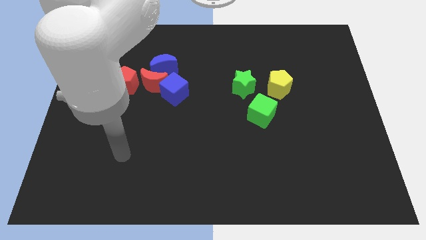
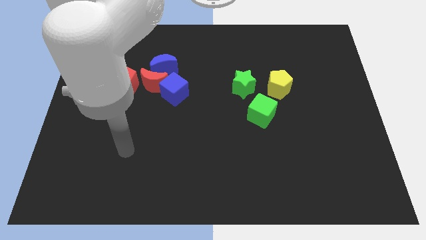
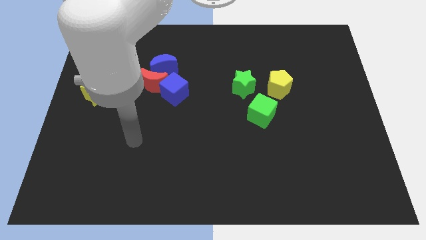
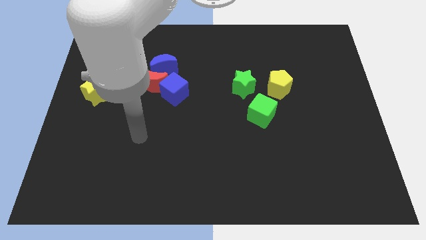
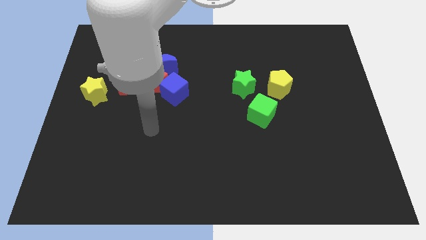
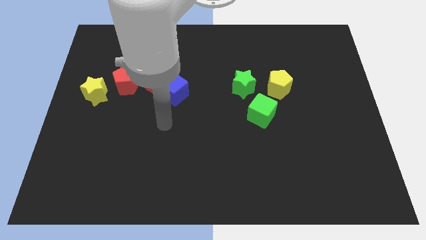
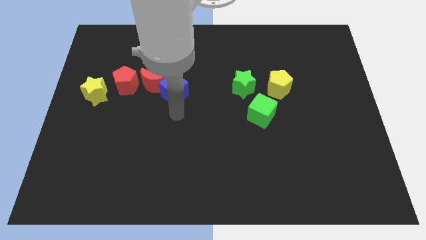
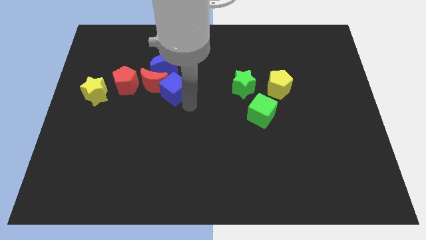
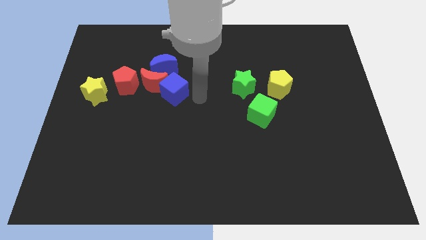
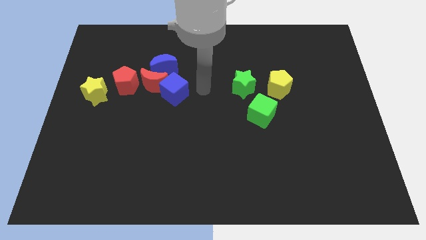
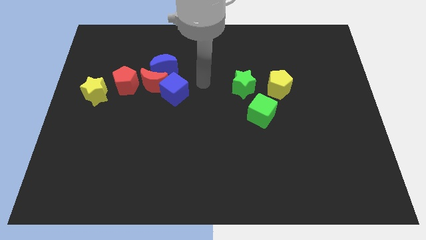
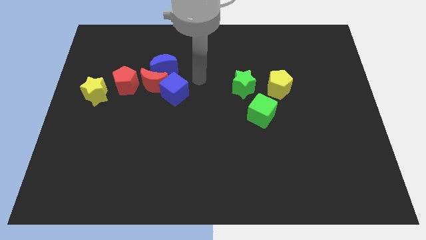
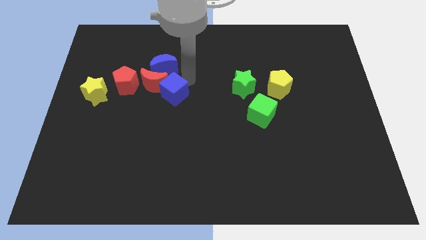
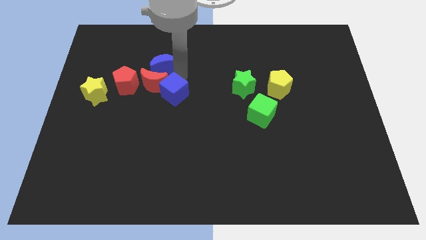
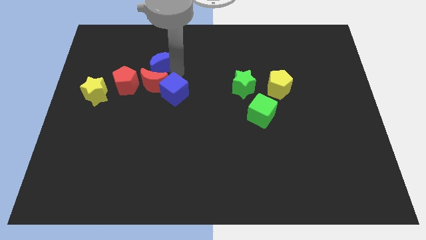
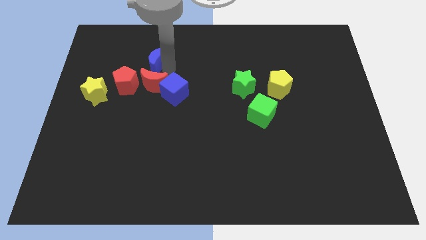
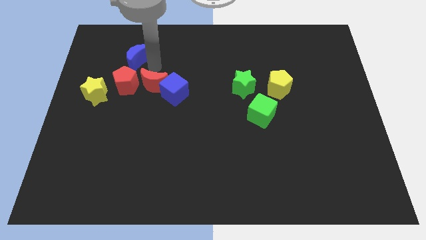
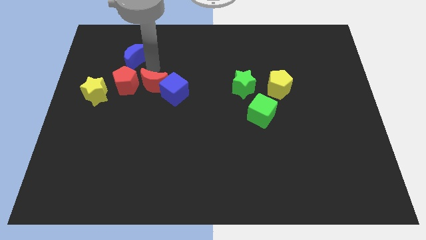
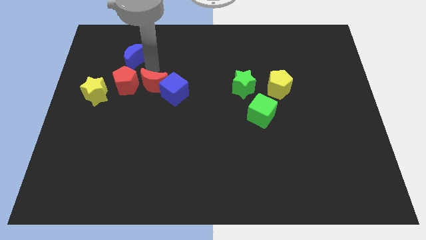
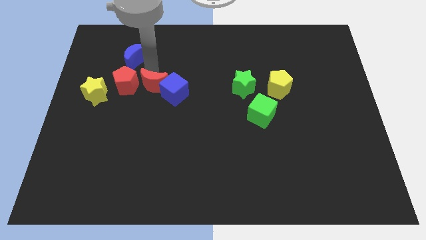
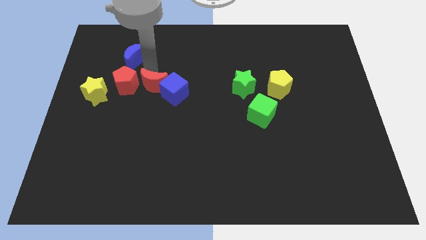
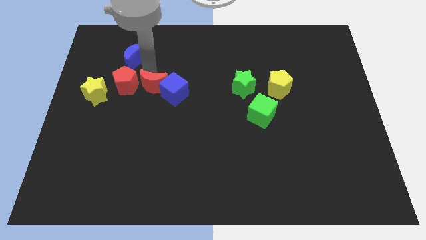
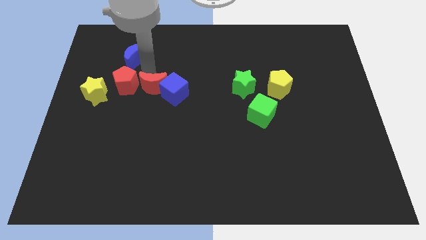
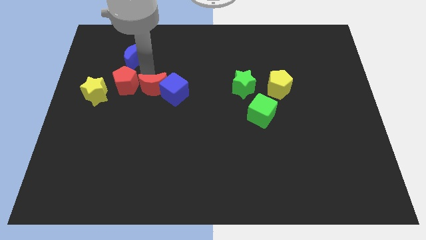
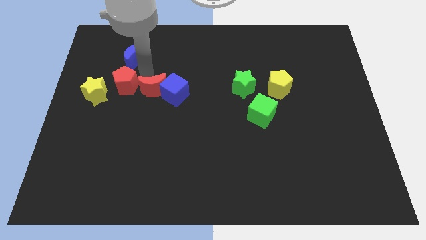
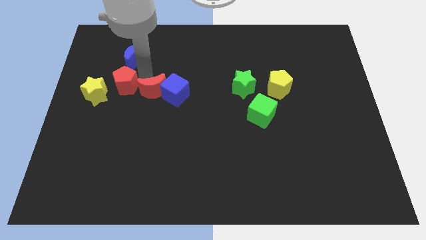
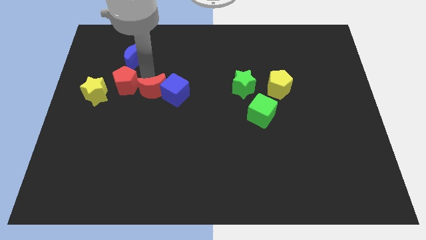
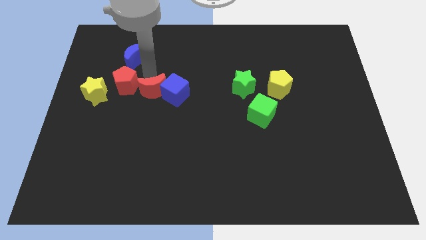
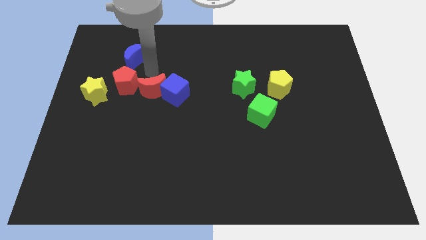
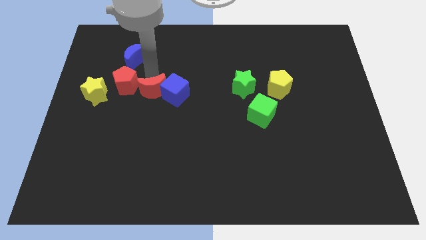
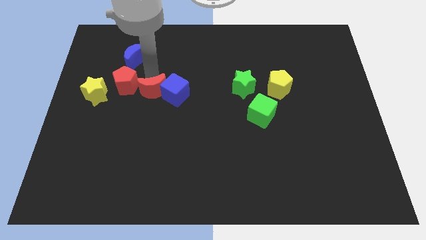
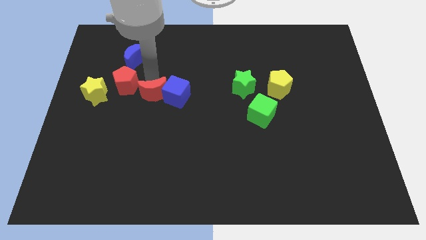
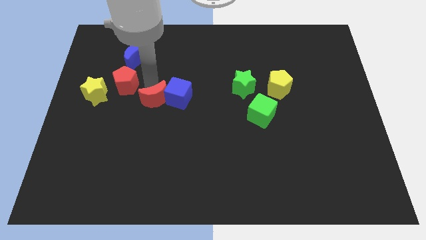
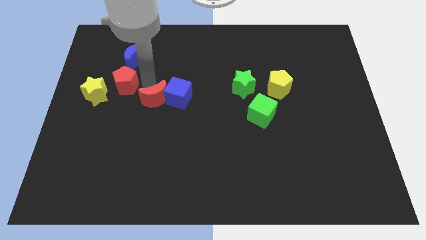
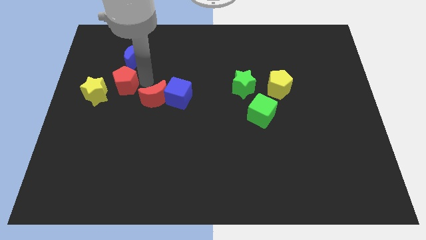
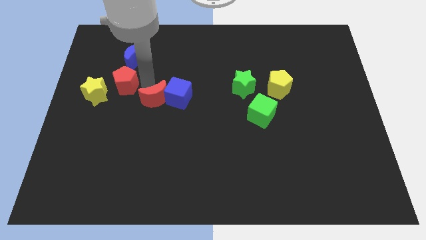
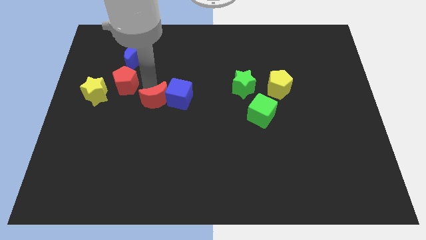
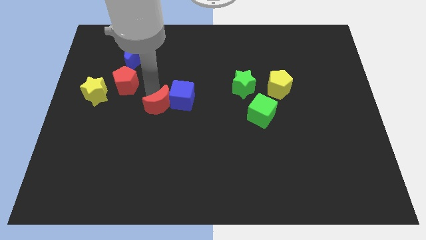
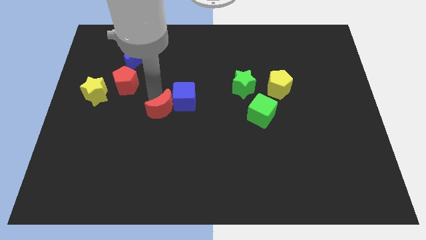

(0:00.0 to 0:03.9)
separate the red moon from the group

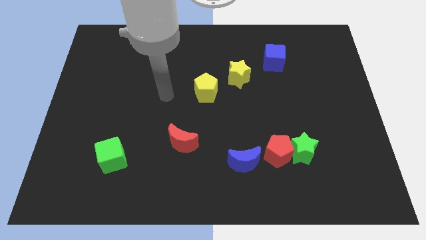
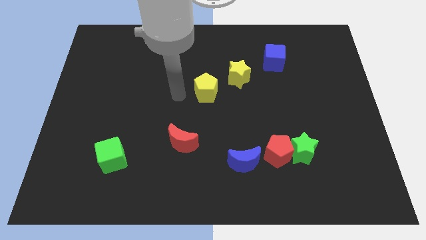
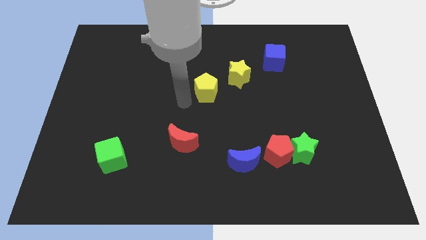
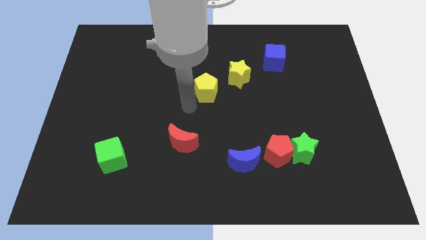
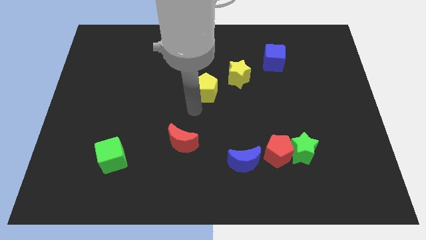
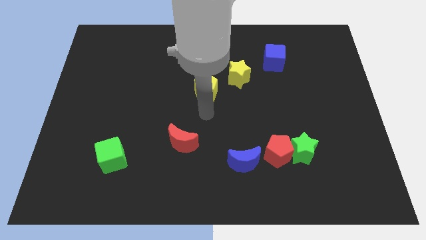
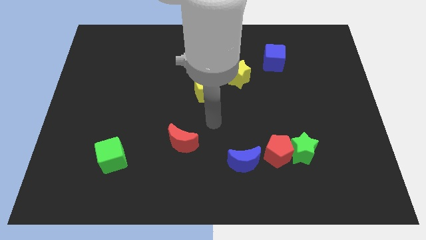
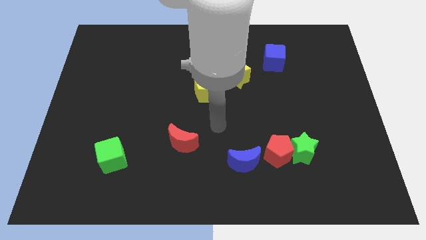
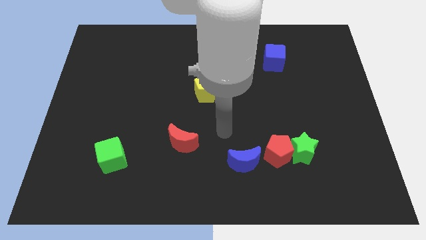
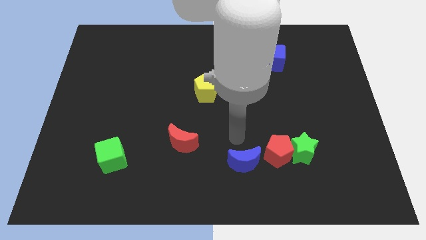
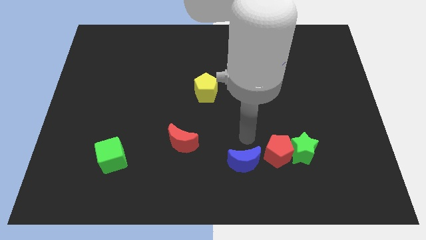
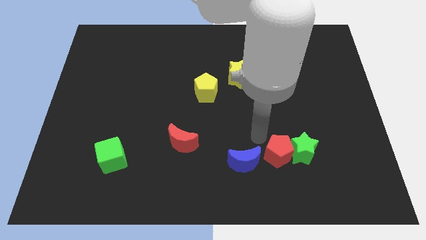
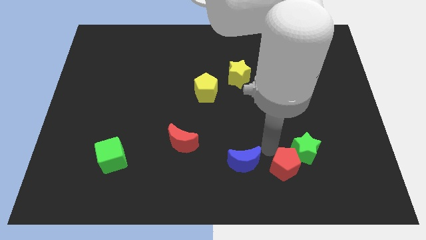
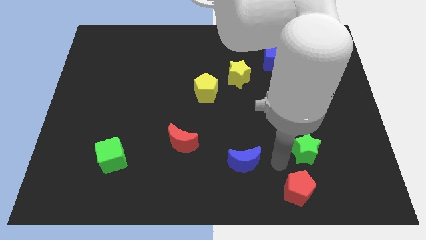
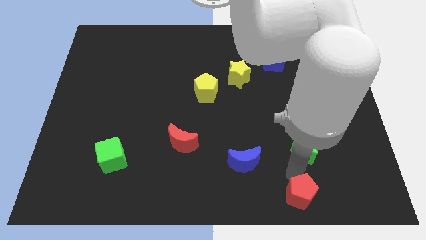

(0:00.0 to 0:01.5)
pull the green star apart from the red pentagon

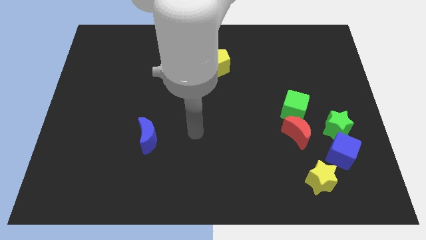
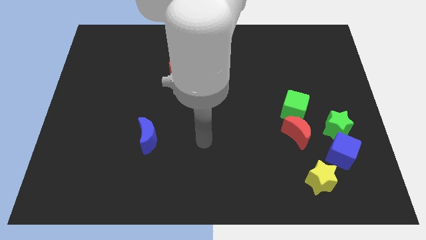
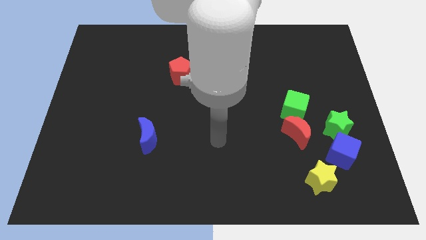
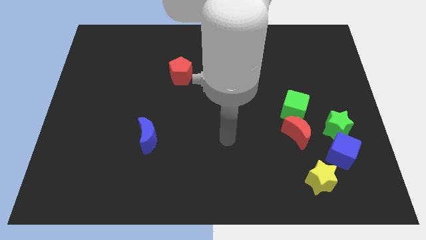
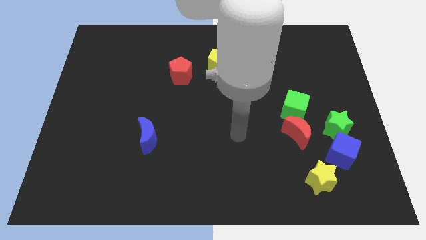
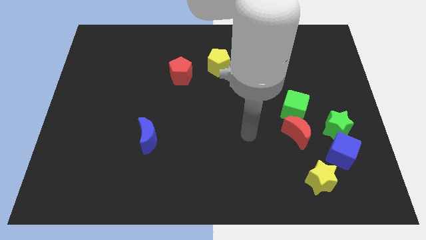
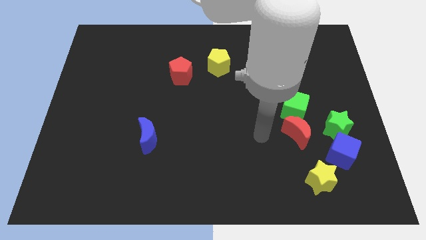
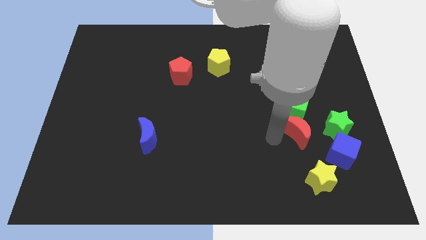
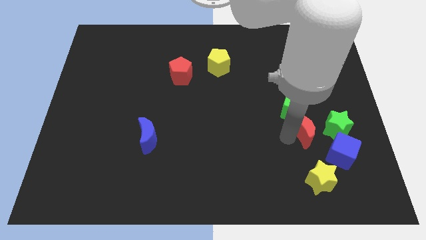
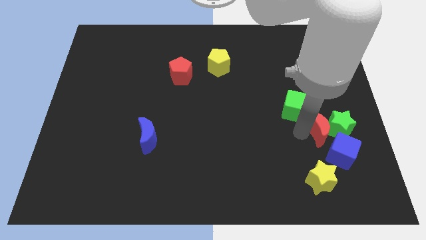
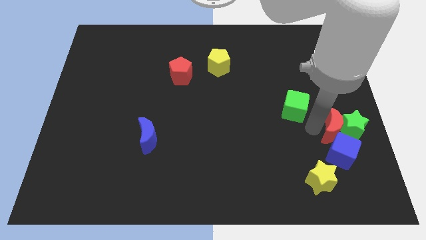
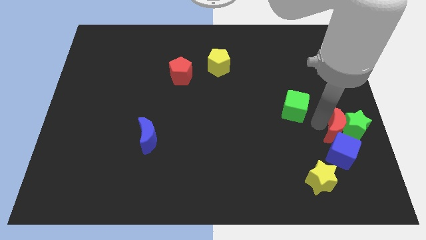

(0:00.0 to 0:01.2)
pull the green cube apart from the red moon

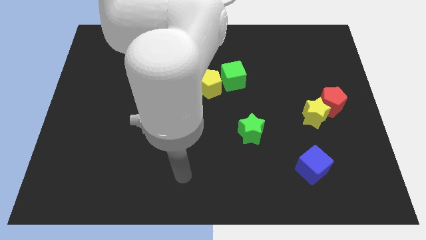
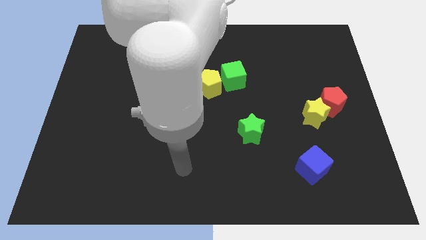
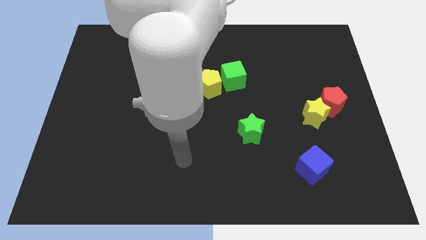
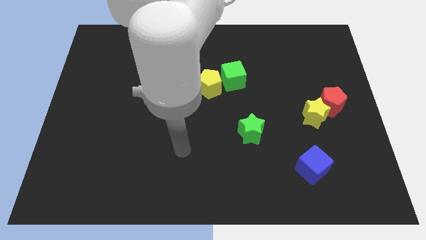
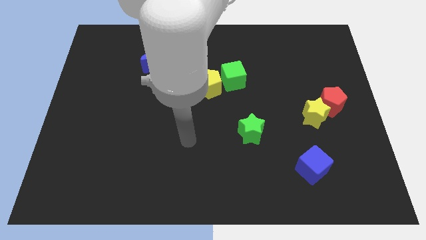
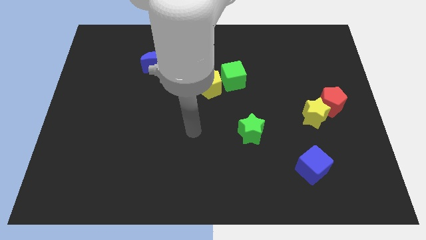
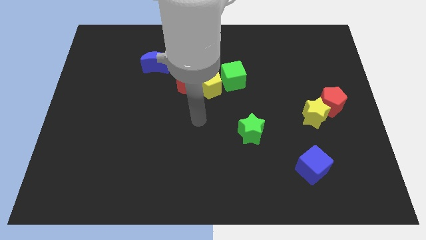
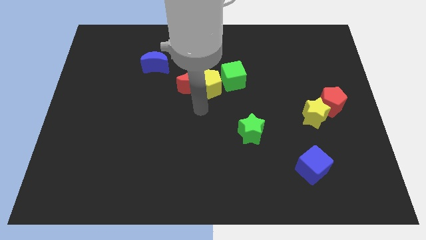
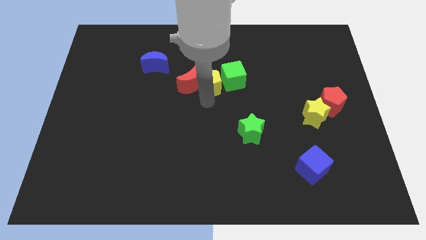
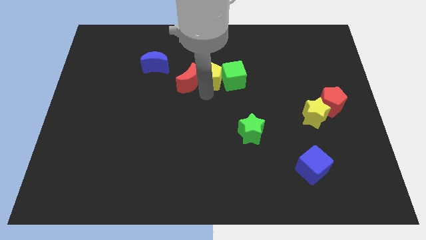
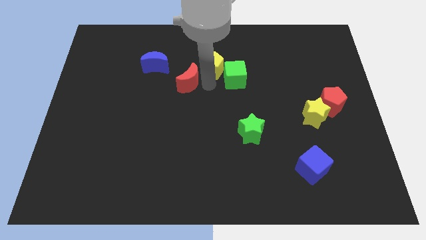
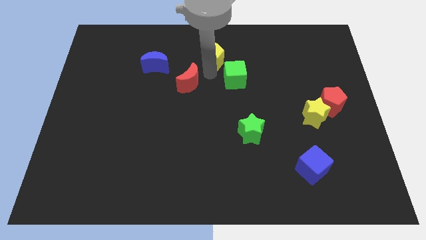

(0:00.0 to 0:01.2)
separate the red moon from the yellow pentagon

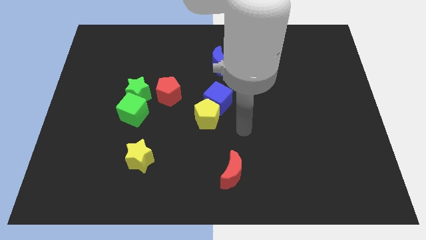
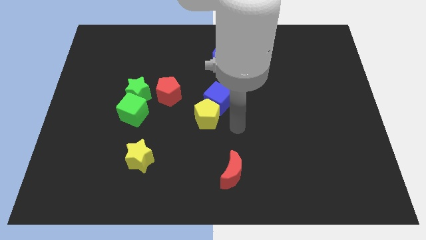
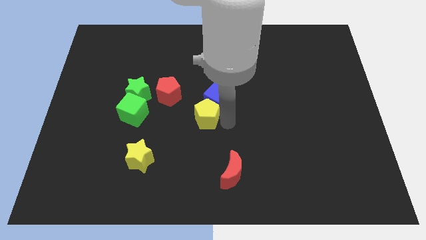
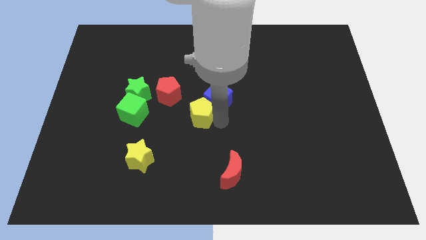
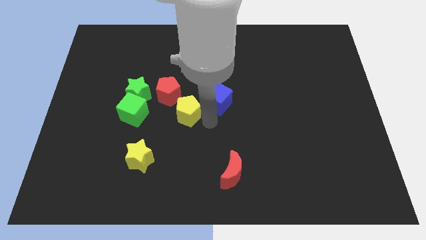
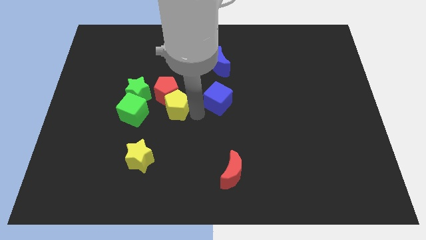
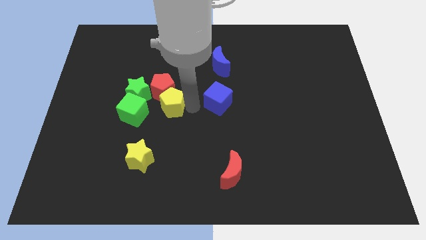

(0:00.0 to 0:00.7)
separate the blue cube from the yellow pentagon

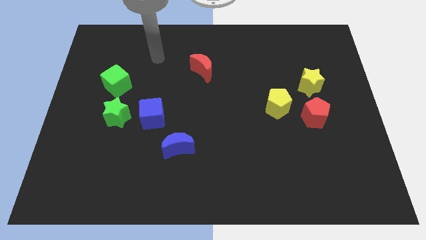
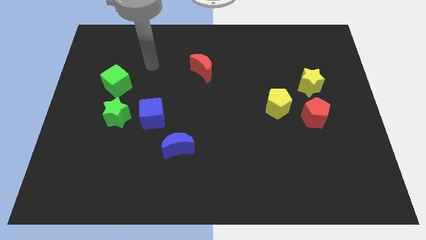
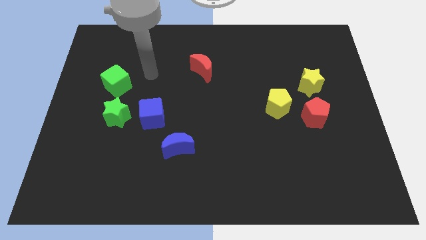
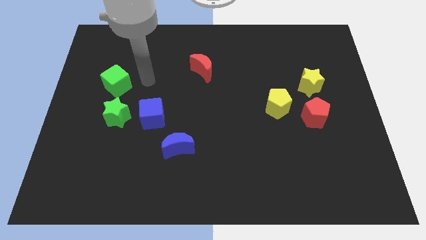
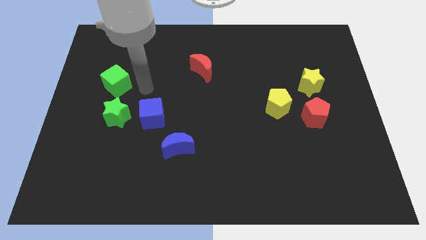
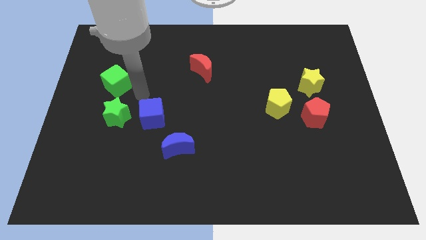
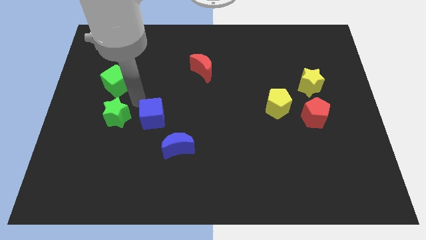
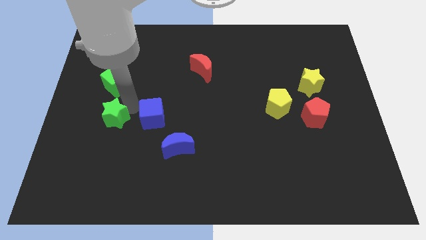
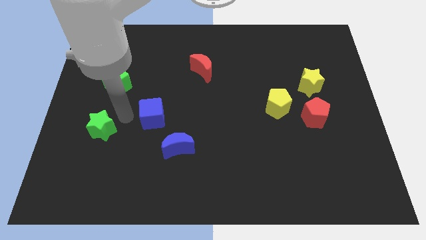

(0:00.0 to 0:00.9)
move the blue cube away from the green star
